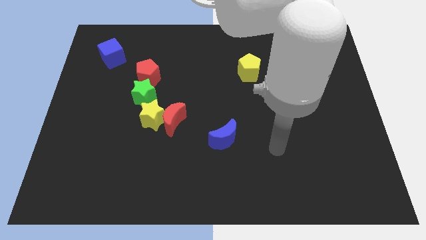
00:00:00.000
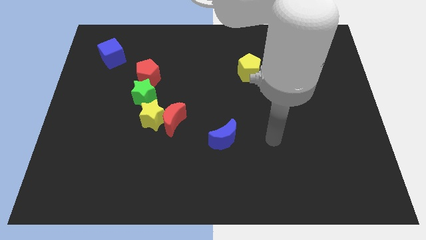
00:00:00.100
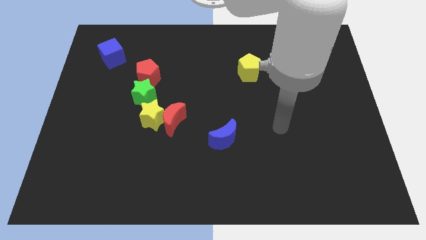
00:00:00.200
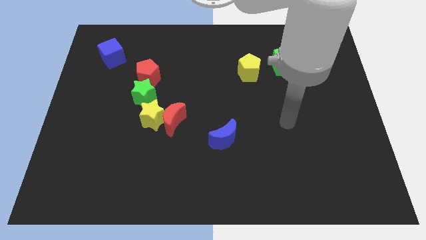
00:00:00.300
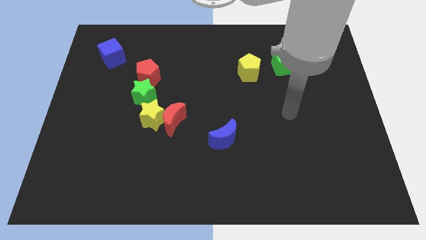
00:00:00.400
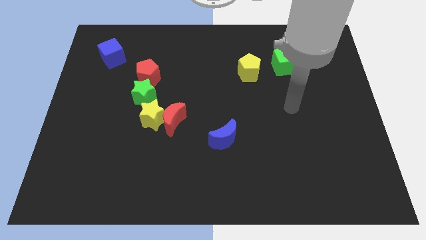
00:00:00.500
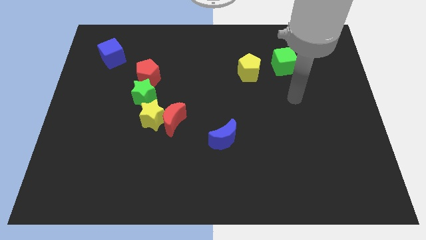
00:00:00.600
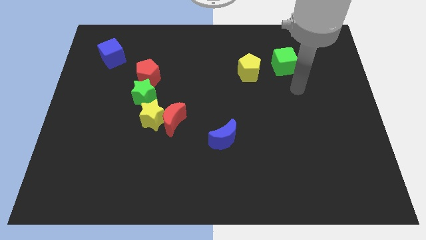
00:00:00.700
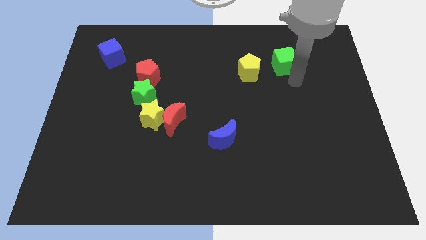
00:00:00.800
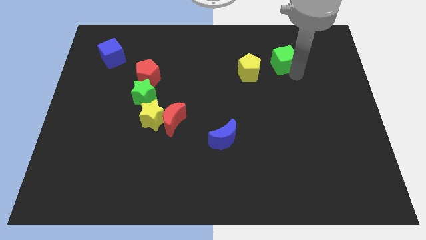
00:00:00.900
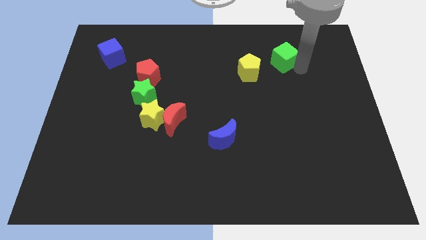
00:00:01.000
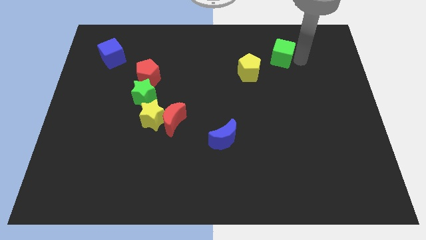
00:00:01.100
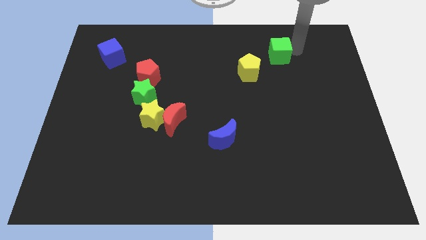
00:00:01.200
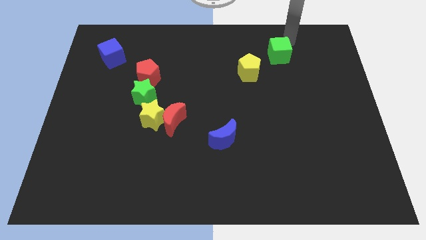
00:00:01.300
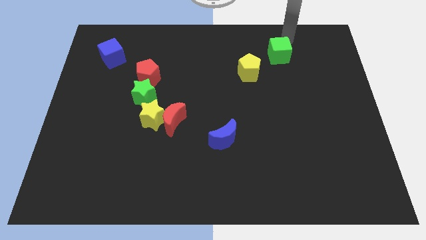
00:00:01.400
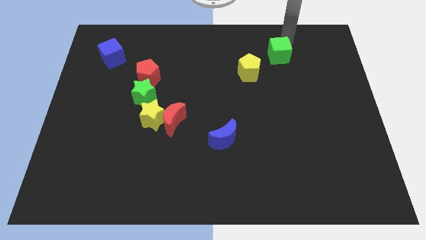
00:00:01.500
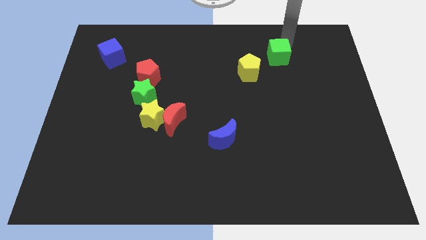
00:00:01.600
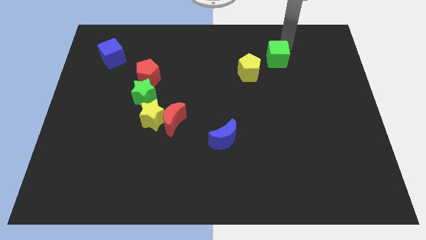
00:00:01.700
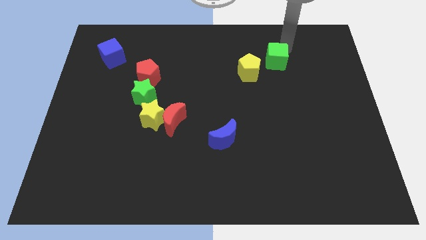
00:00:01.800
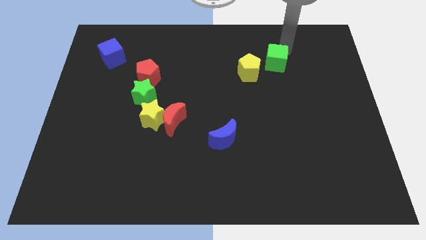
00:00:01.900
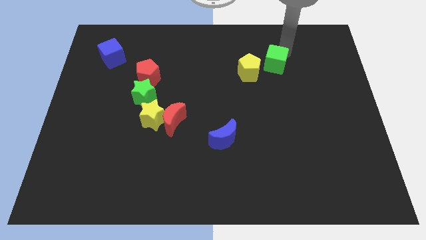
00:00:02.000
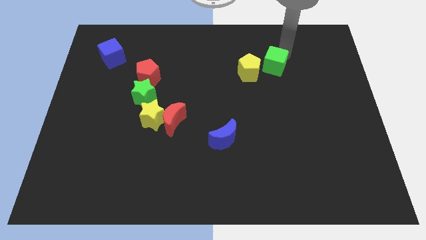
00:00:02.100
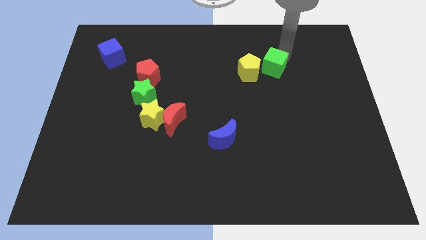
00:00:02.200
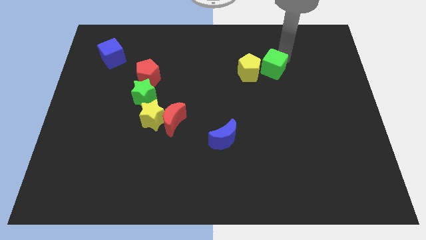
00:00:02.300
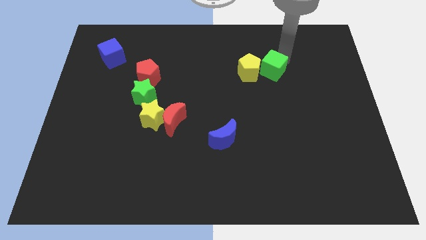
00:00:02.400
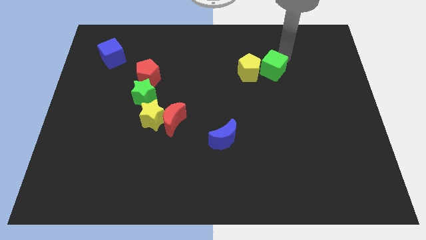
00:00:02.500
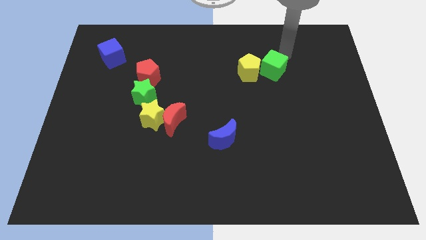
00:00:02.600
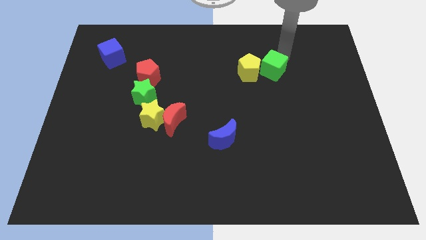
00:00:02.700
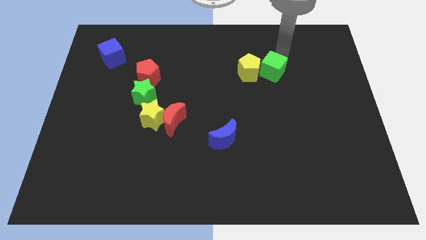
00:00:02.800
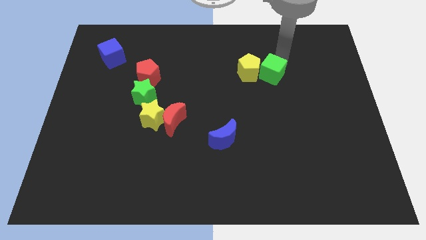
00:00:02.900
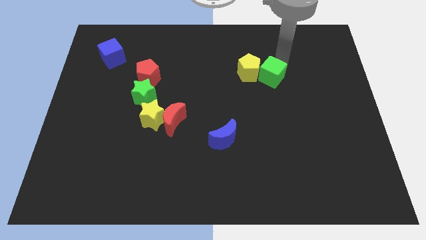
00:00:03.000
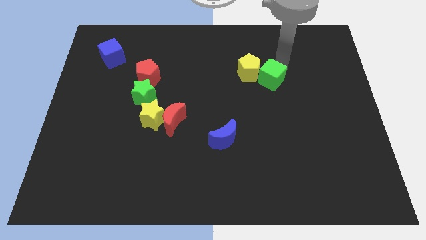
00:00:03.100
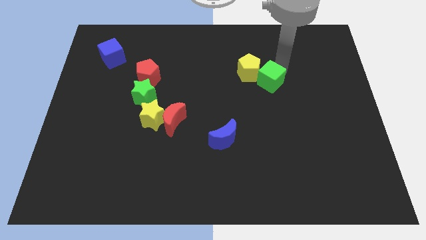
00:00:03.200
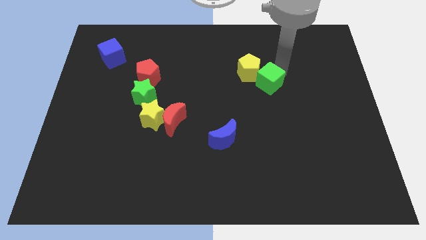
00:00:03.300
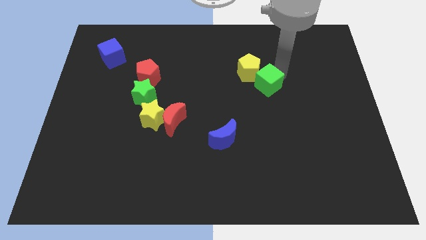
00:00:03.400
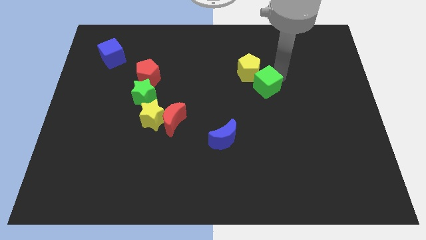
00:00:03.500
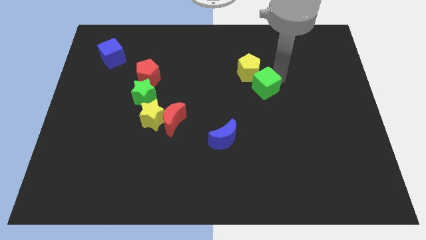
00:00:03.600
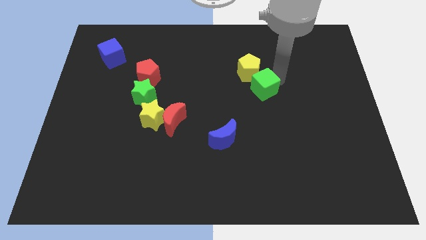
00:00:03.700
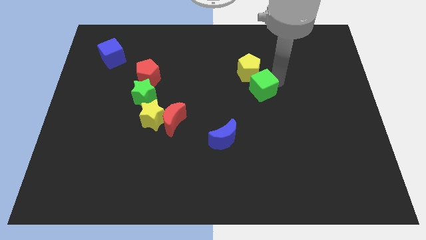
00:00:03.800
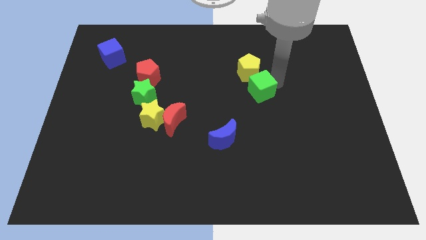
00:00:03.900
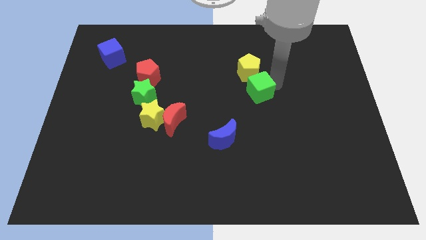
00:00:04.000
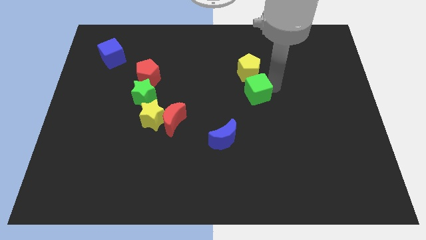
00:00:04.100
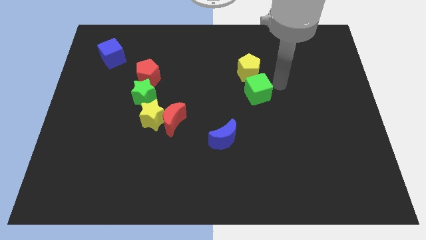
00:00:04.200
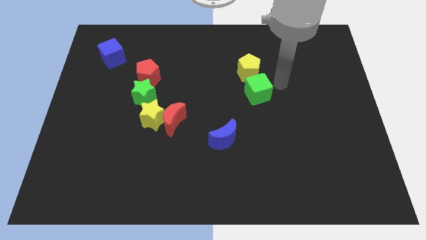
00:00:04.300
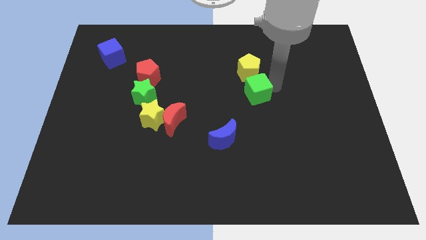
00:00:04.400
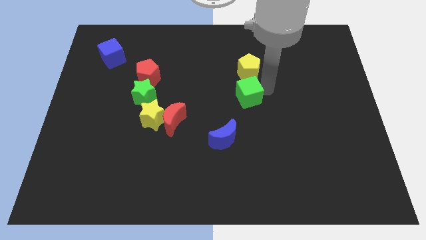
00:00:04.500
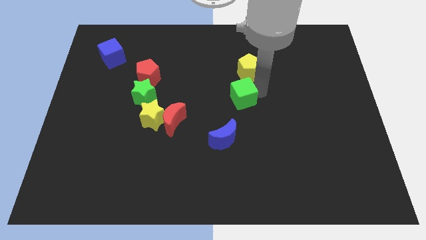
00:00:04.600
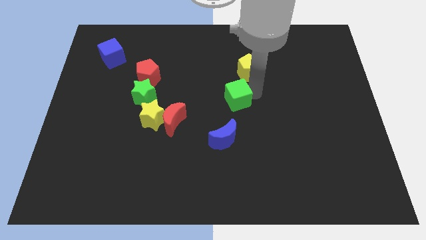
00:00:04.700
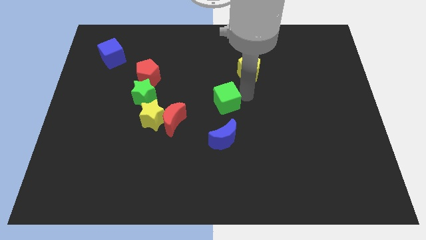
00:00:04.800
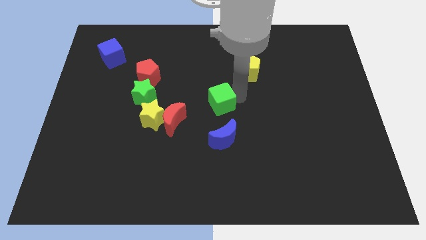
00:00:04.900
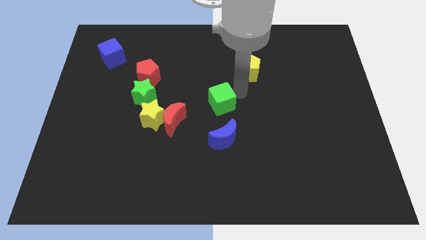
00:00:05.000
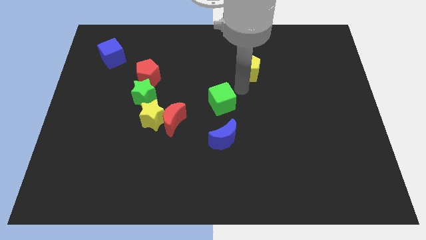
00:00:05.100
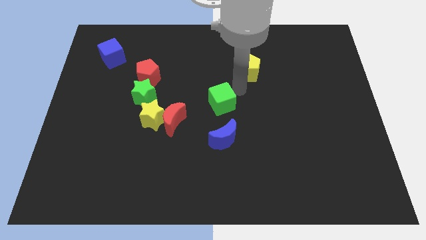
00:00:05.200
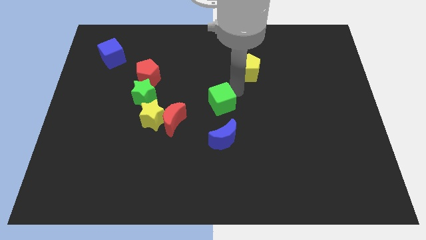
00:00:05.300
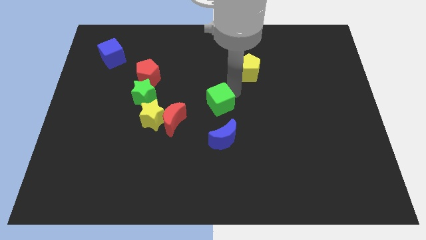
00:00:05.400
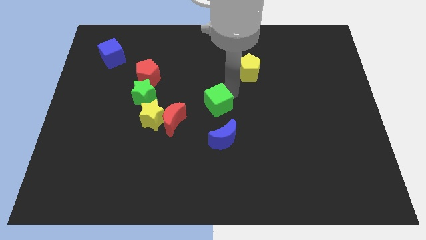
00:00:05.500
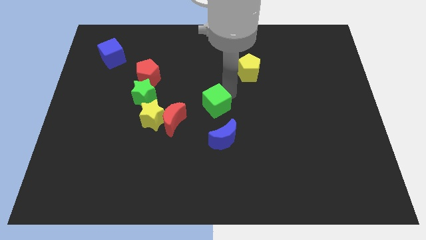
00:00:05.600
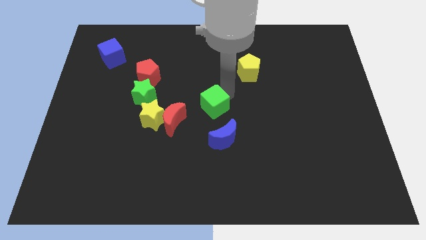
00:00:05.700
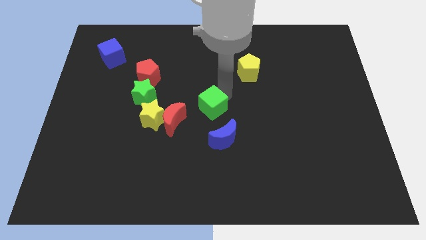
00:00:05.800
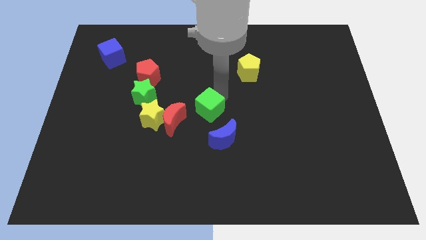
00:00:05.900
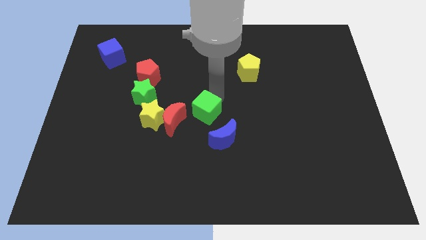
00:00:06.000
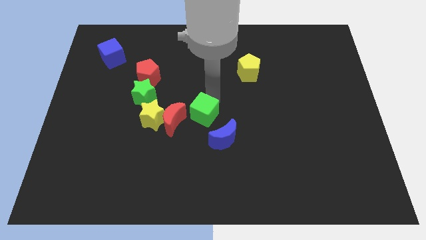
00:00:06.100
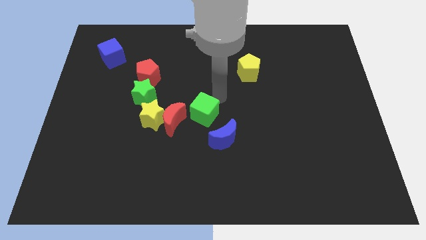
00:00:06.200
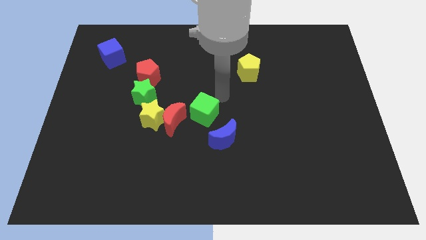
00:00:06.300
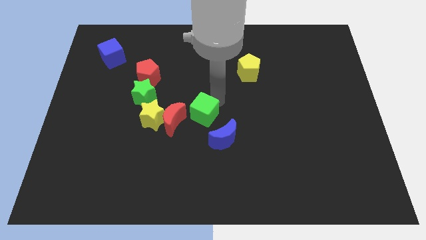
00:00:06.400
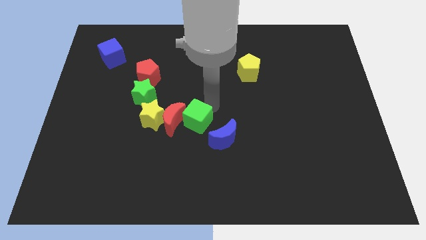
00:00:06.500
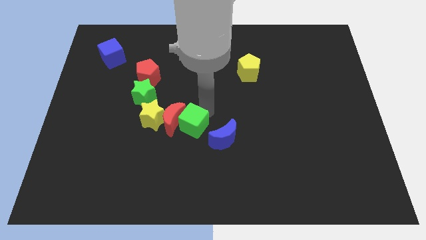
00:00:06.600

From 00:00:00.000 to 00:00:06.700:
push the green cube to the left side of the blue moon

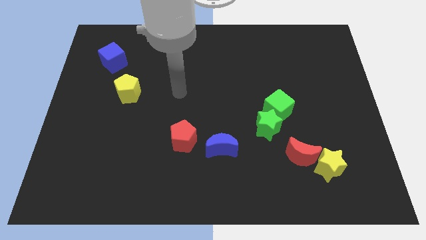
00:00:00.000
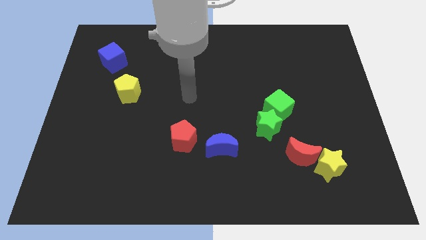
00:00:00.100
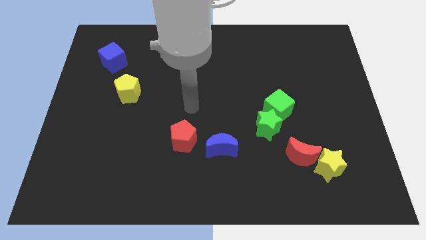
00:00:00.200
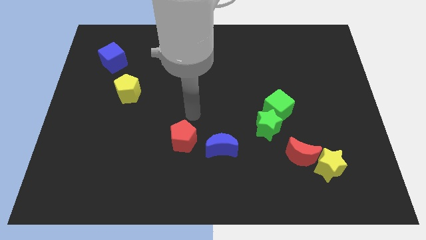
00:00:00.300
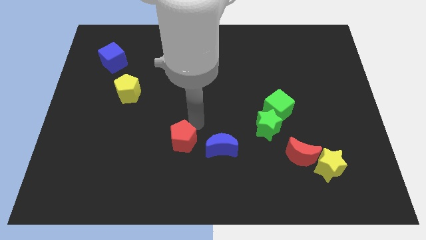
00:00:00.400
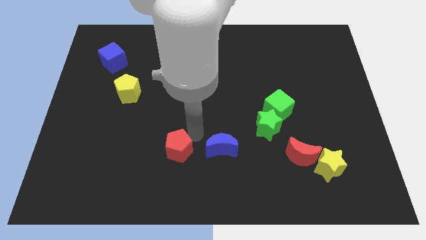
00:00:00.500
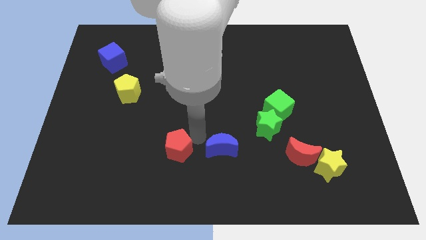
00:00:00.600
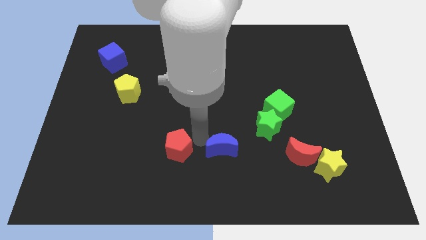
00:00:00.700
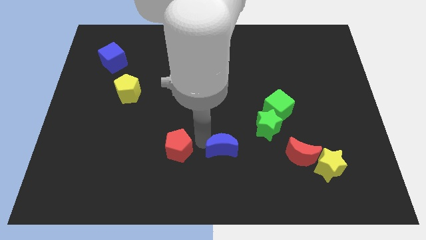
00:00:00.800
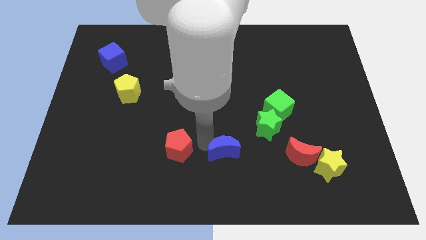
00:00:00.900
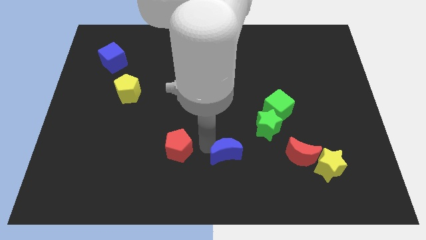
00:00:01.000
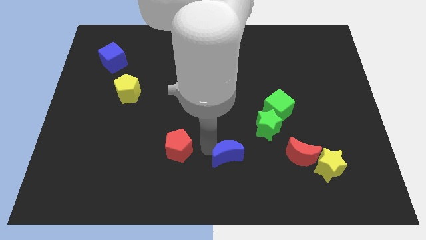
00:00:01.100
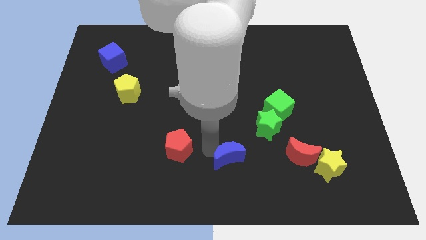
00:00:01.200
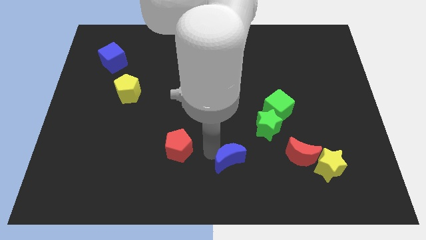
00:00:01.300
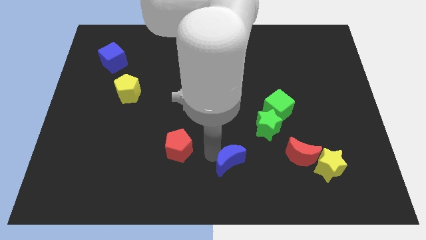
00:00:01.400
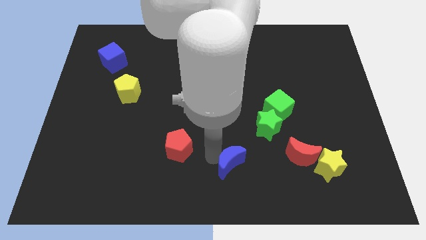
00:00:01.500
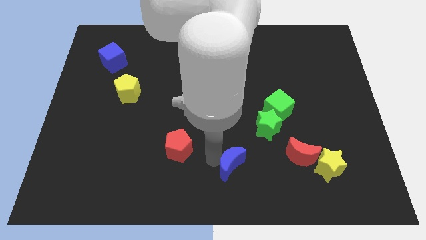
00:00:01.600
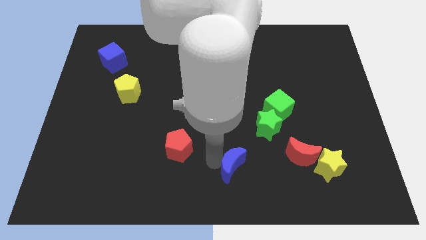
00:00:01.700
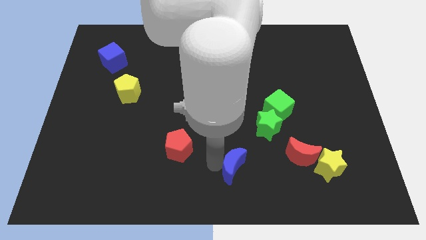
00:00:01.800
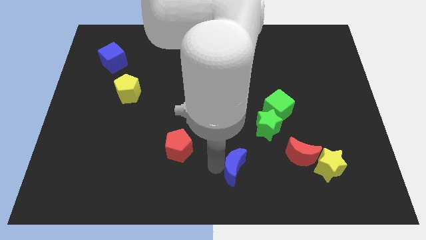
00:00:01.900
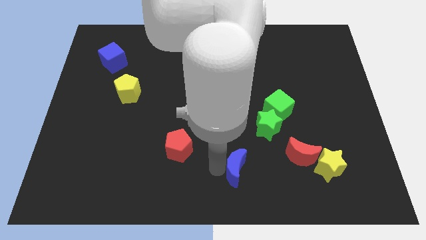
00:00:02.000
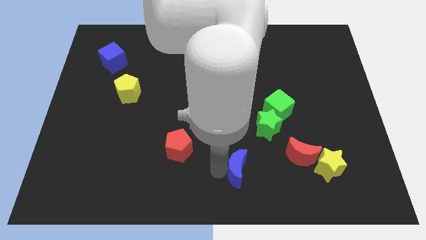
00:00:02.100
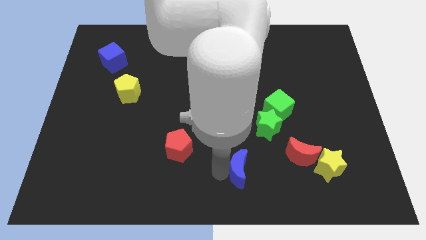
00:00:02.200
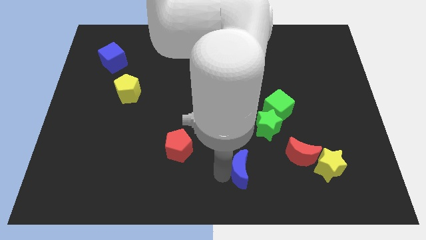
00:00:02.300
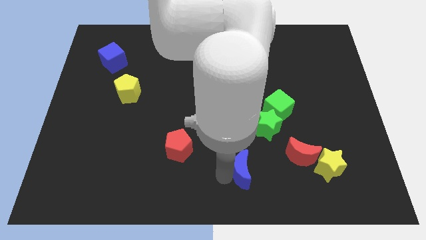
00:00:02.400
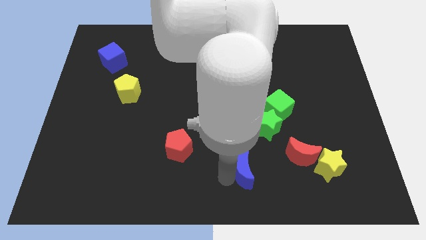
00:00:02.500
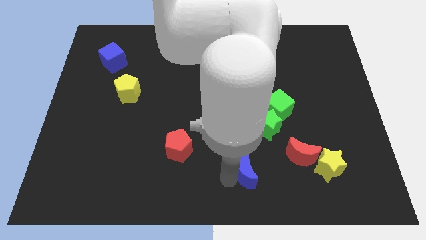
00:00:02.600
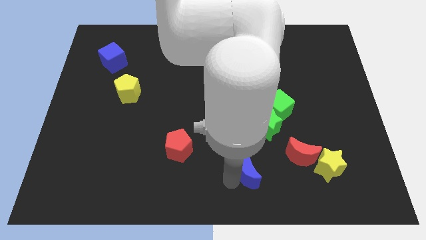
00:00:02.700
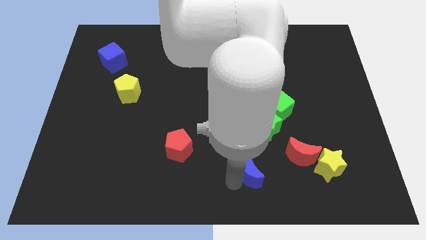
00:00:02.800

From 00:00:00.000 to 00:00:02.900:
put the blue moon below the green star
